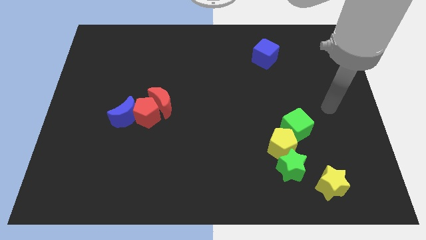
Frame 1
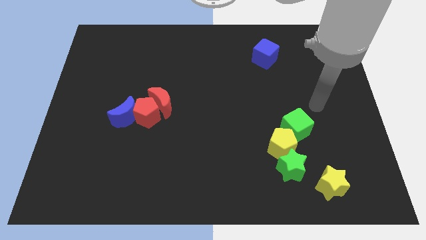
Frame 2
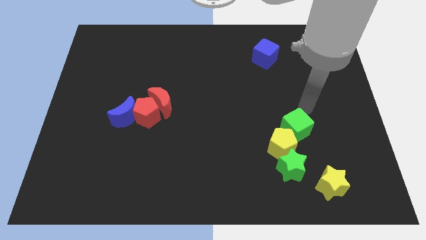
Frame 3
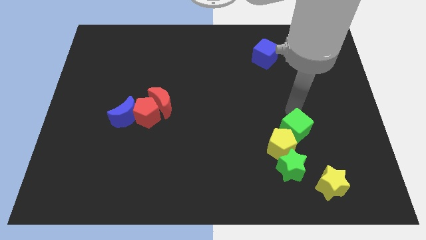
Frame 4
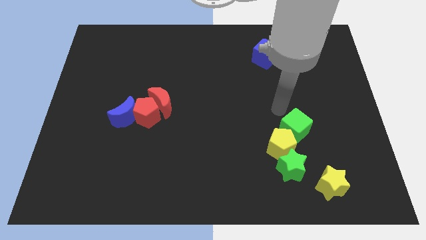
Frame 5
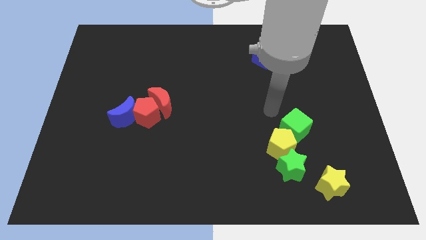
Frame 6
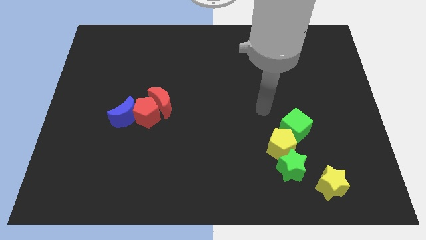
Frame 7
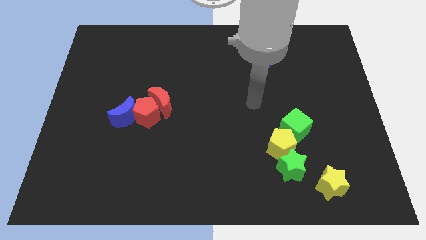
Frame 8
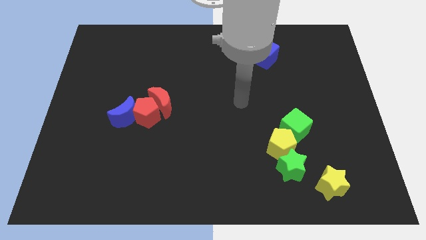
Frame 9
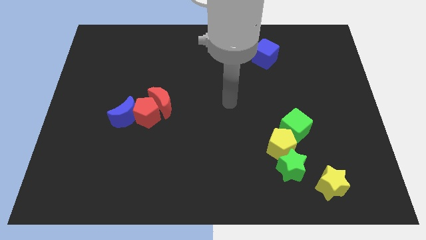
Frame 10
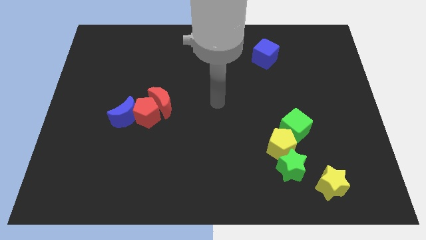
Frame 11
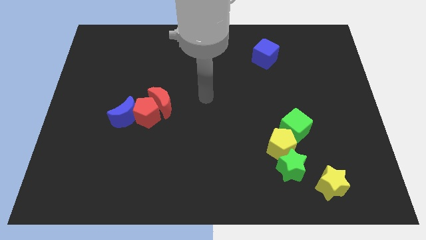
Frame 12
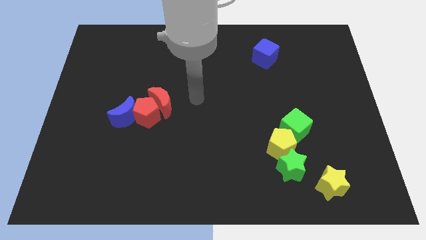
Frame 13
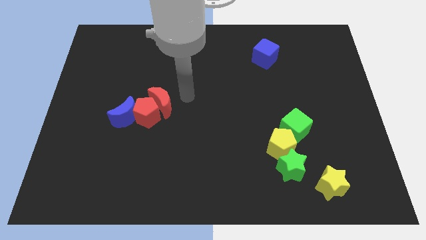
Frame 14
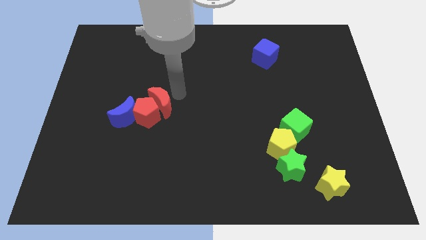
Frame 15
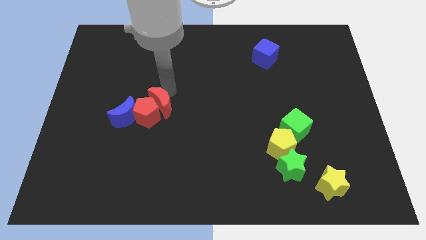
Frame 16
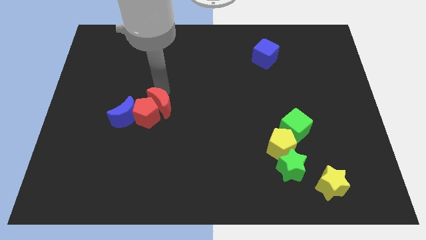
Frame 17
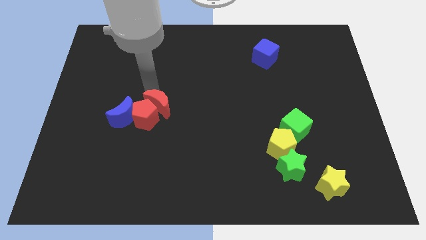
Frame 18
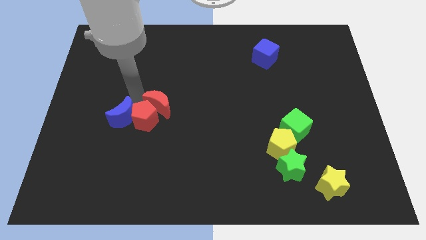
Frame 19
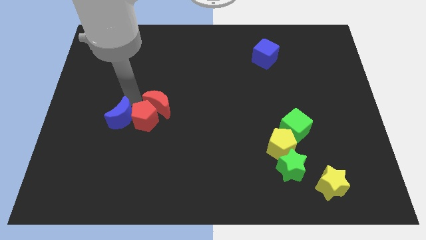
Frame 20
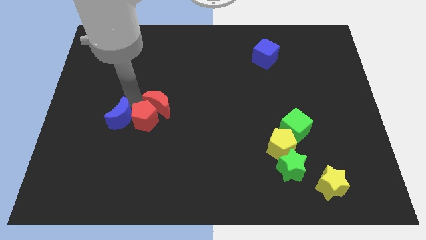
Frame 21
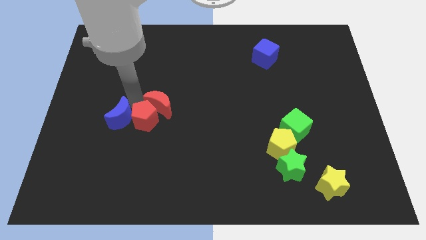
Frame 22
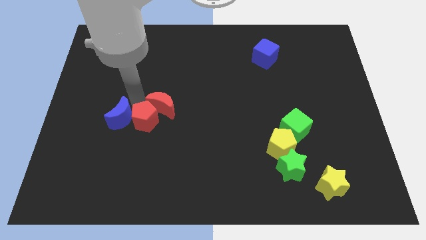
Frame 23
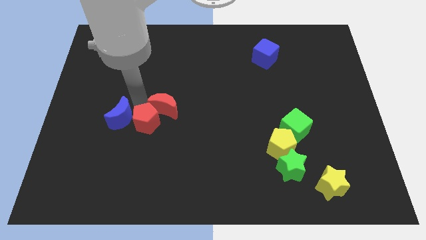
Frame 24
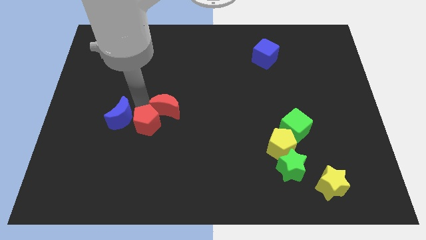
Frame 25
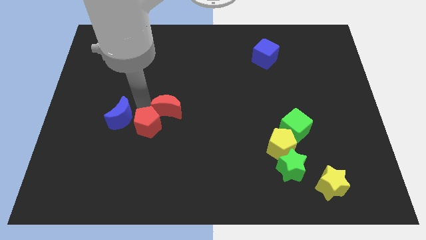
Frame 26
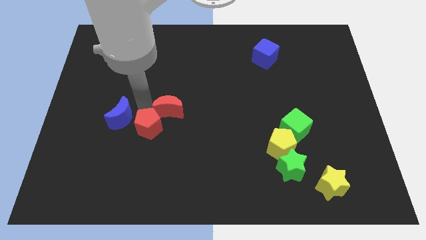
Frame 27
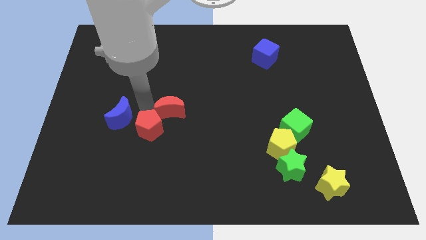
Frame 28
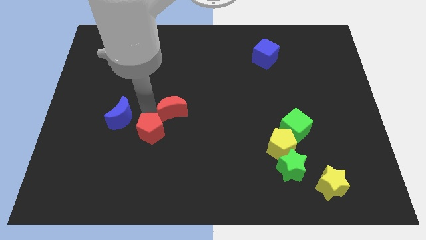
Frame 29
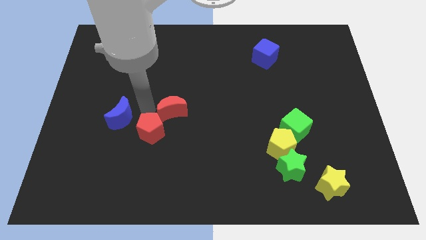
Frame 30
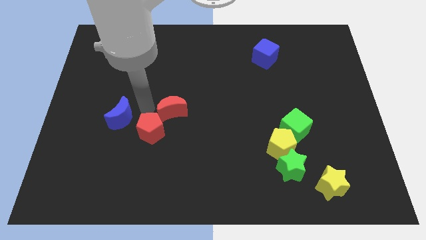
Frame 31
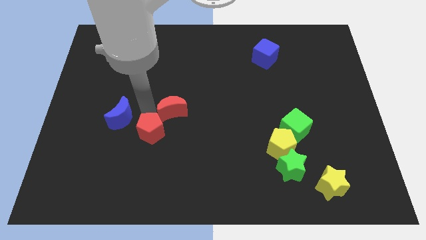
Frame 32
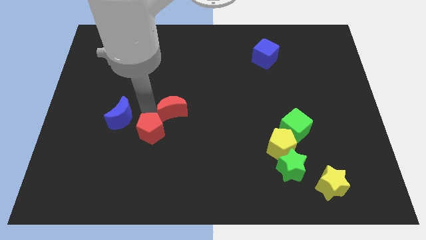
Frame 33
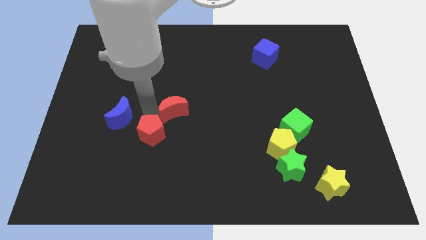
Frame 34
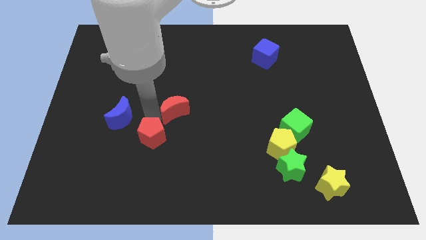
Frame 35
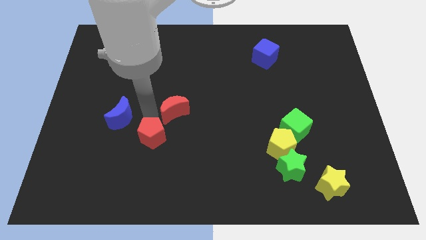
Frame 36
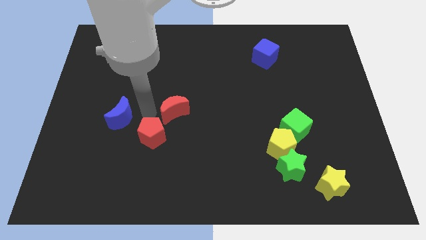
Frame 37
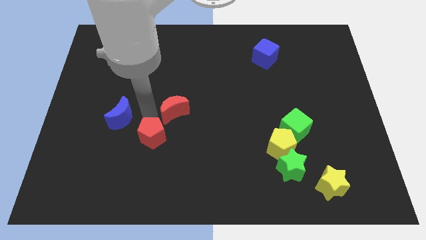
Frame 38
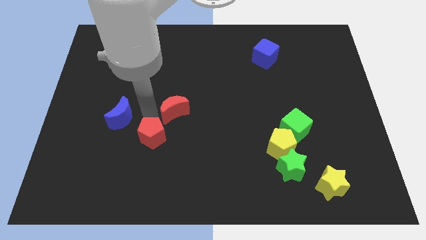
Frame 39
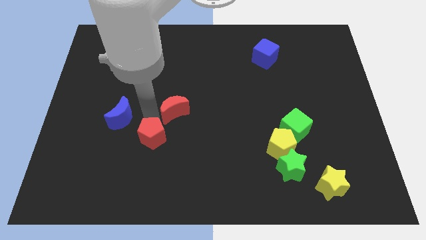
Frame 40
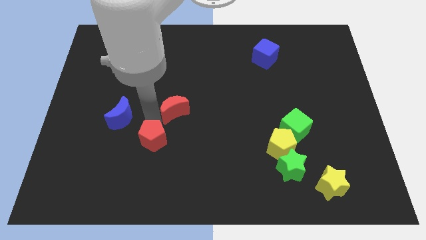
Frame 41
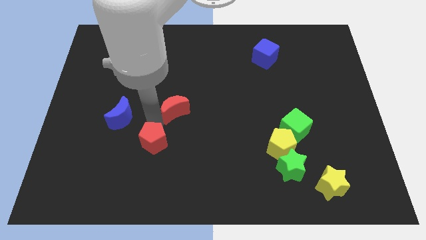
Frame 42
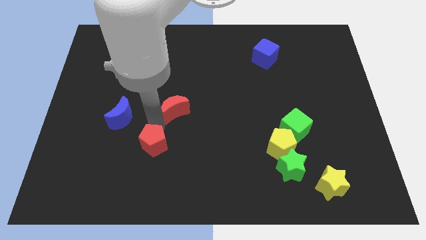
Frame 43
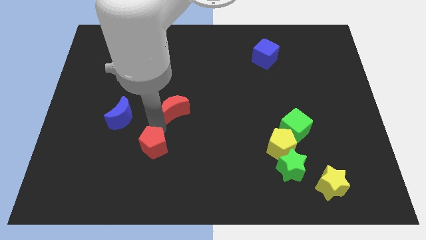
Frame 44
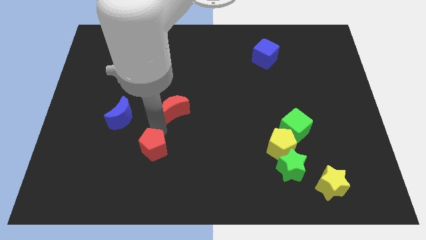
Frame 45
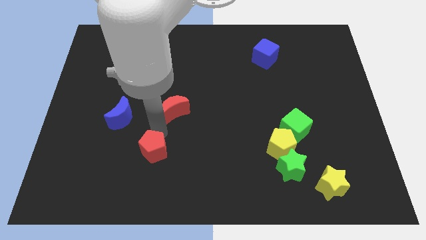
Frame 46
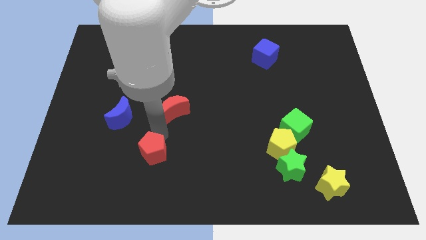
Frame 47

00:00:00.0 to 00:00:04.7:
pull the red pentagon apart from the red moon and blue moon

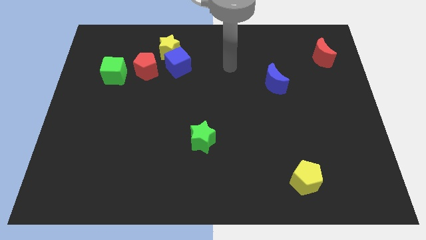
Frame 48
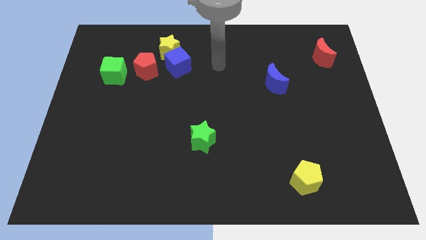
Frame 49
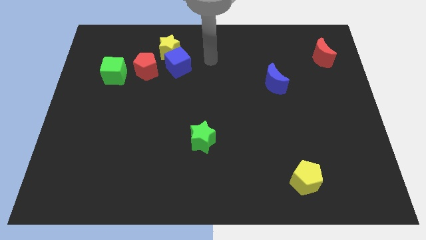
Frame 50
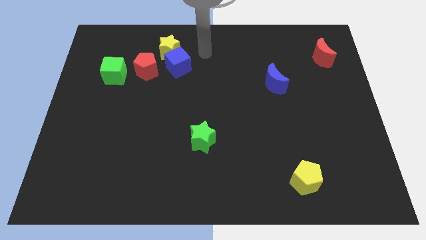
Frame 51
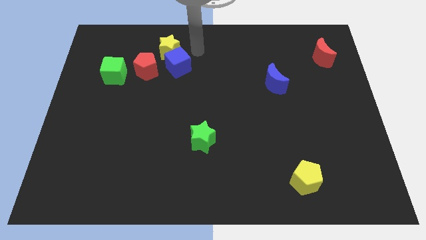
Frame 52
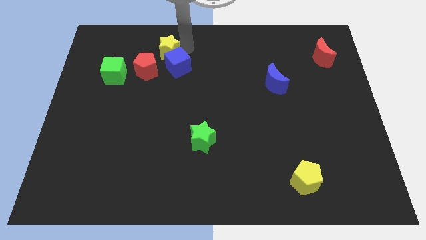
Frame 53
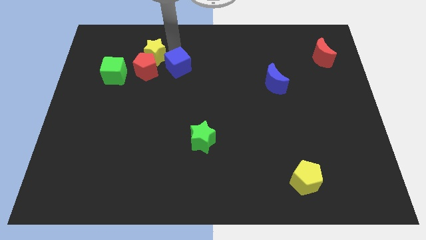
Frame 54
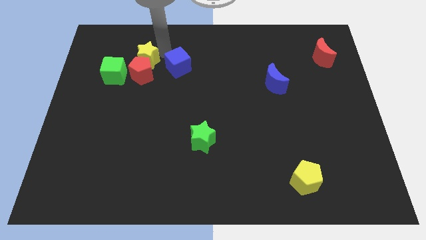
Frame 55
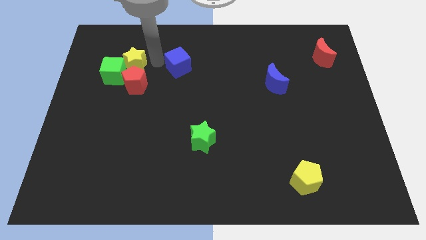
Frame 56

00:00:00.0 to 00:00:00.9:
pull the blue cube apart from the yellow star and red pentagon

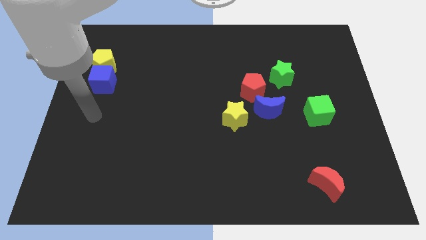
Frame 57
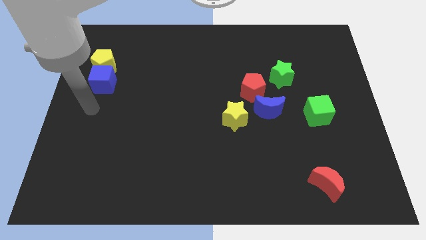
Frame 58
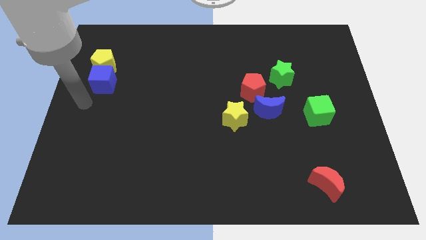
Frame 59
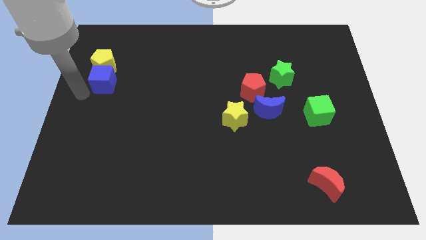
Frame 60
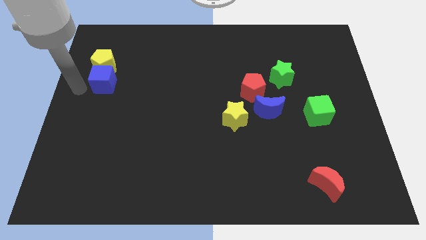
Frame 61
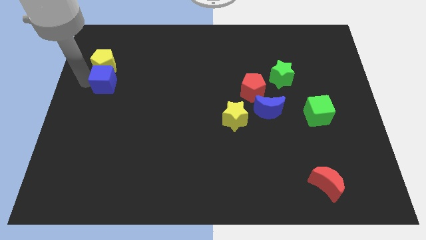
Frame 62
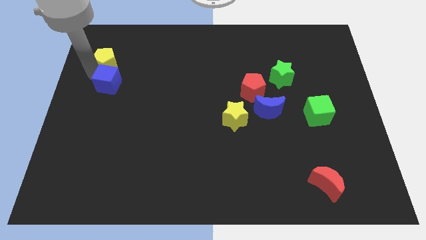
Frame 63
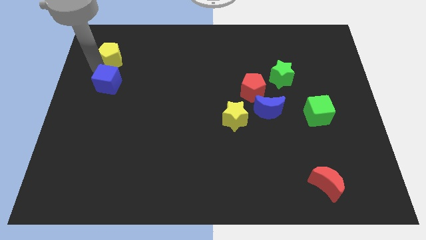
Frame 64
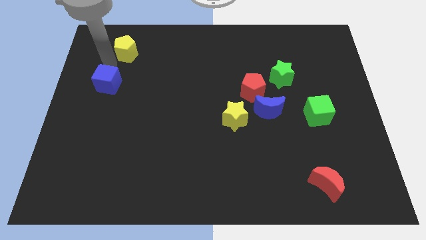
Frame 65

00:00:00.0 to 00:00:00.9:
pull the blue cube apart from the yellow pentagon

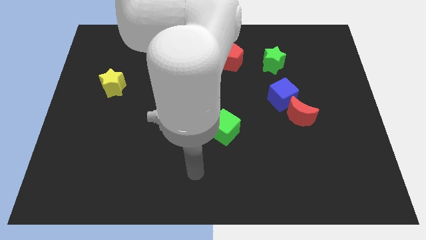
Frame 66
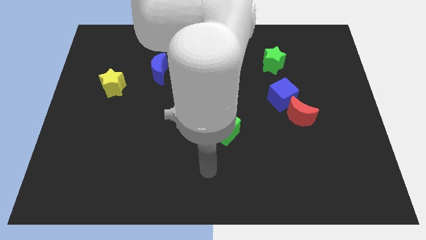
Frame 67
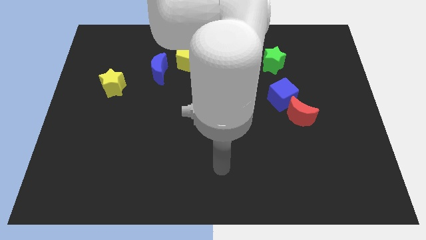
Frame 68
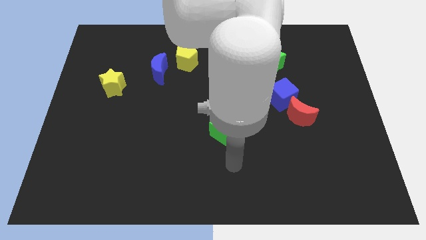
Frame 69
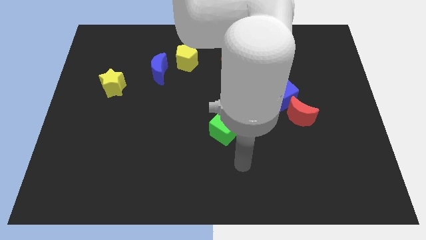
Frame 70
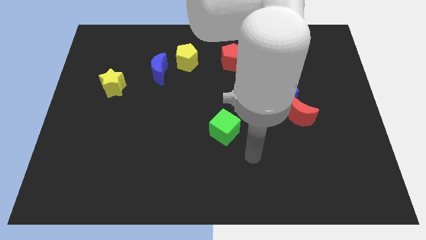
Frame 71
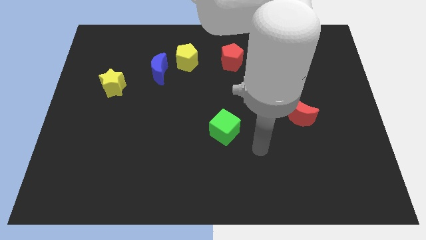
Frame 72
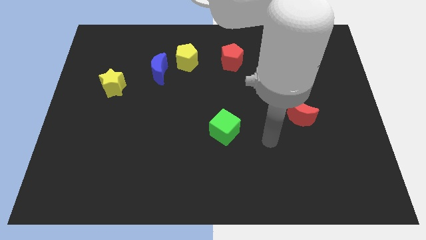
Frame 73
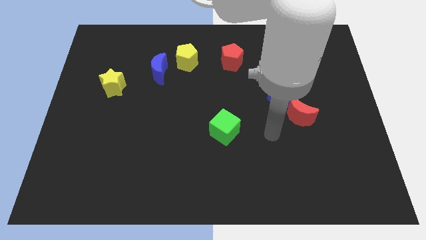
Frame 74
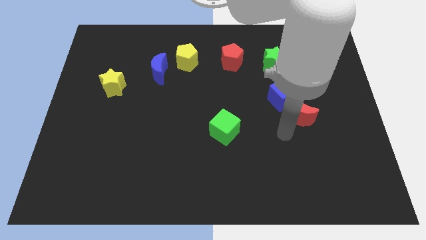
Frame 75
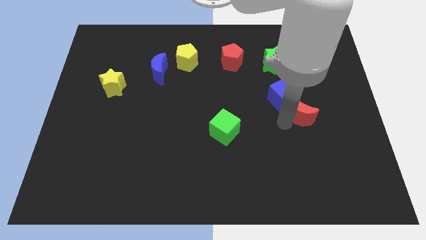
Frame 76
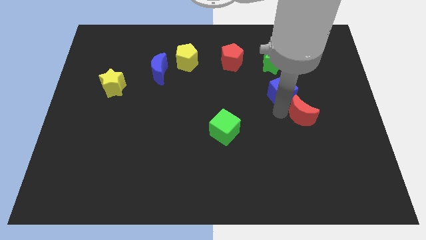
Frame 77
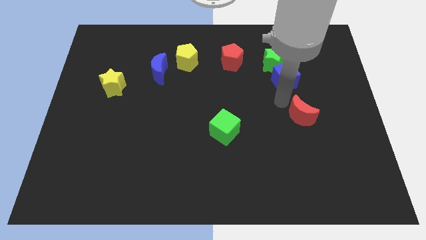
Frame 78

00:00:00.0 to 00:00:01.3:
move the red moon away from the blue cube

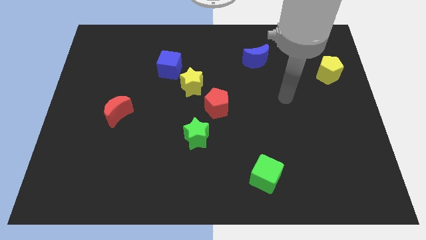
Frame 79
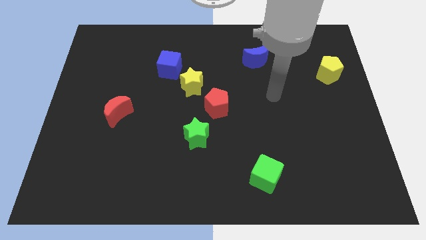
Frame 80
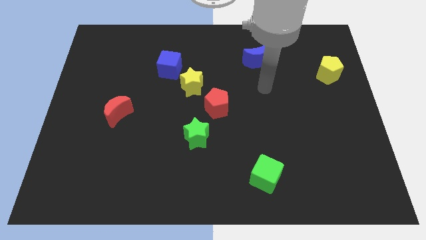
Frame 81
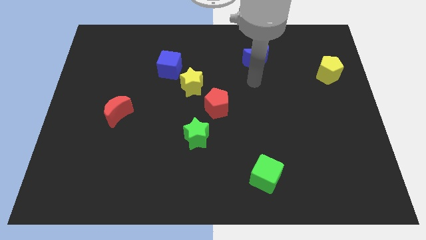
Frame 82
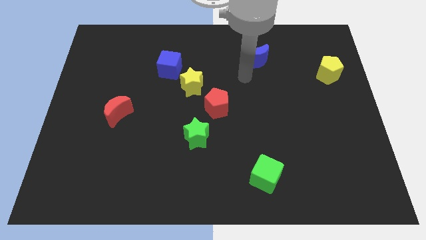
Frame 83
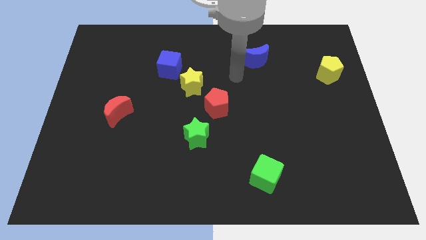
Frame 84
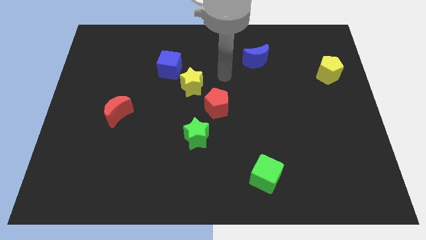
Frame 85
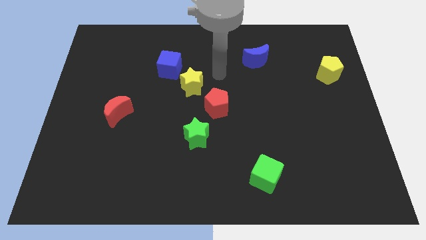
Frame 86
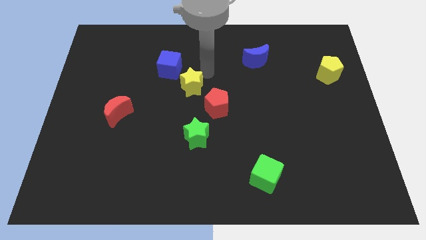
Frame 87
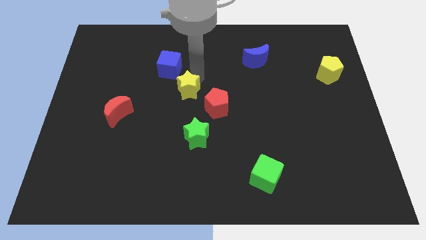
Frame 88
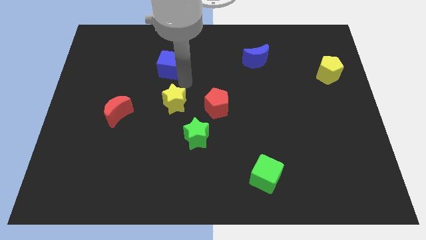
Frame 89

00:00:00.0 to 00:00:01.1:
pull the blue cube apart from the yellow star

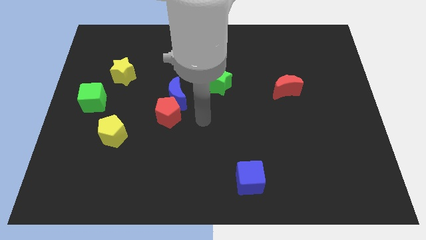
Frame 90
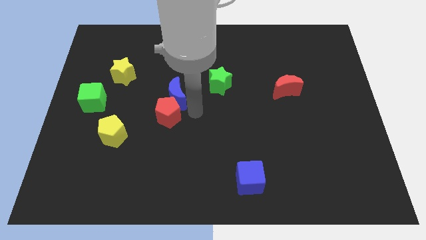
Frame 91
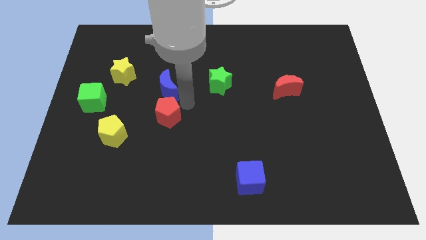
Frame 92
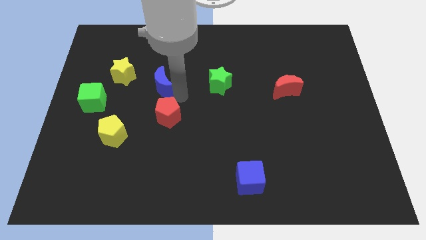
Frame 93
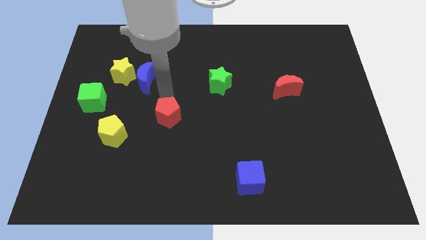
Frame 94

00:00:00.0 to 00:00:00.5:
move the red pentagon away from the blue moon
